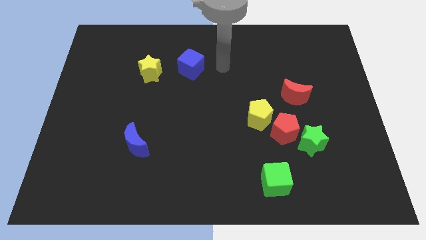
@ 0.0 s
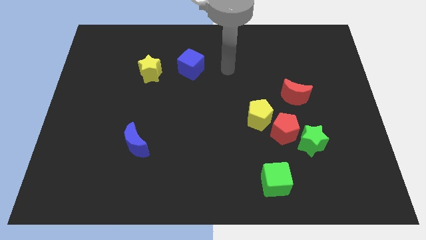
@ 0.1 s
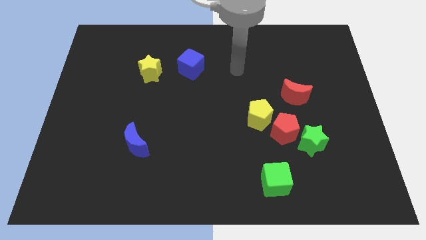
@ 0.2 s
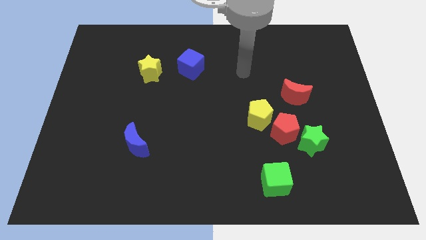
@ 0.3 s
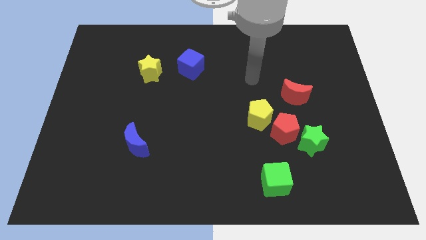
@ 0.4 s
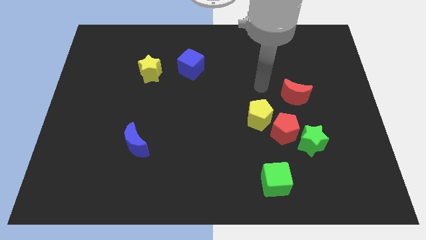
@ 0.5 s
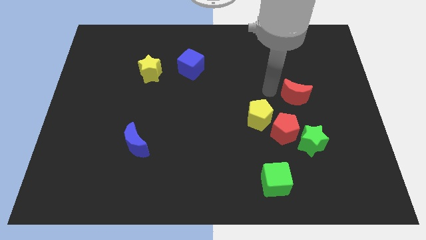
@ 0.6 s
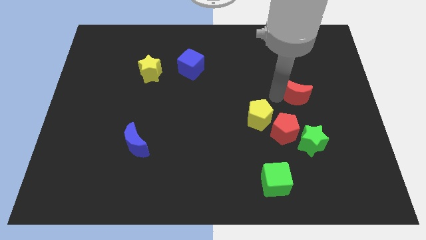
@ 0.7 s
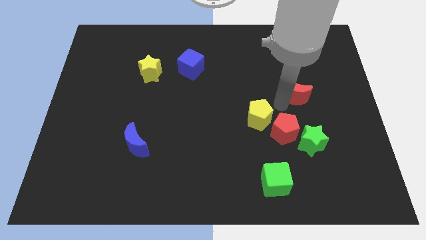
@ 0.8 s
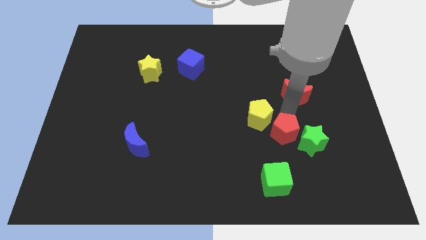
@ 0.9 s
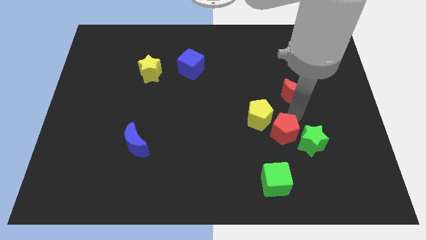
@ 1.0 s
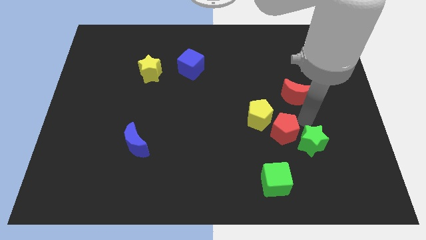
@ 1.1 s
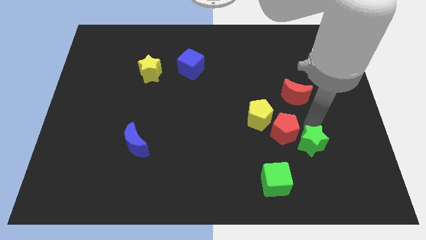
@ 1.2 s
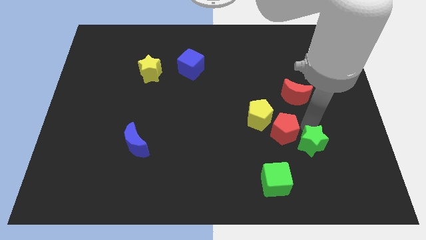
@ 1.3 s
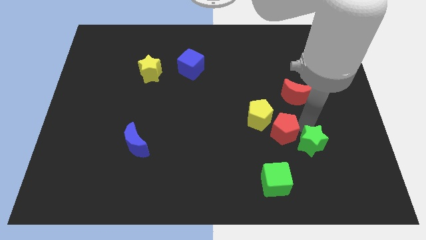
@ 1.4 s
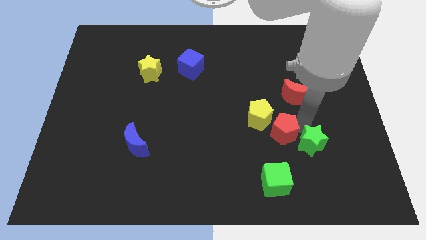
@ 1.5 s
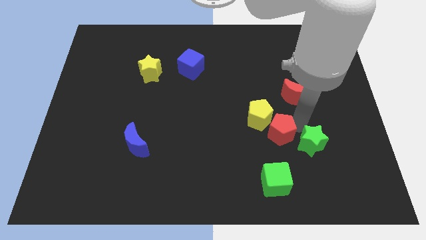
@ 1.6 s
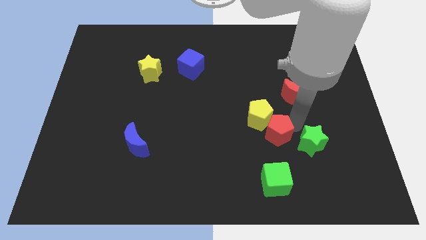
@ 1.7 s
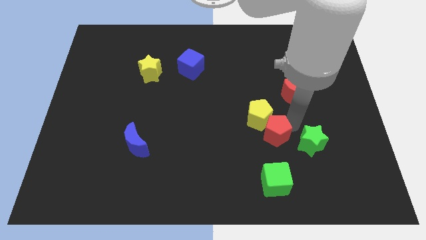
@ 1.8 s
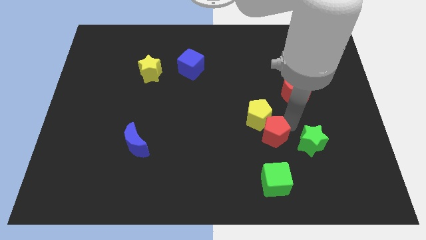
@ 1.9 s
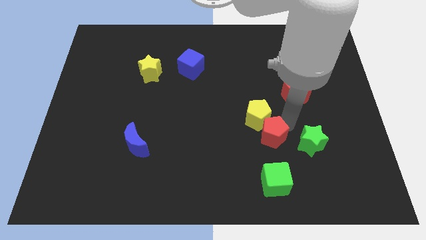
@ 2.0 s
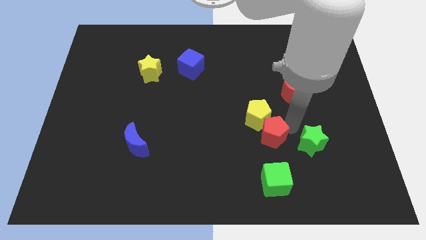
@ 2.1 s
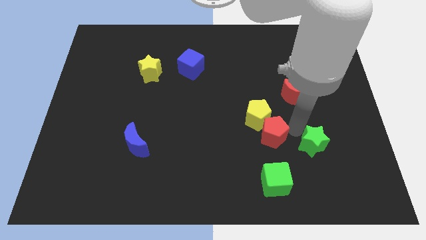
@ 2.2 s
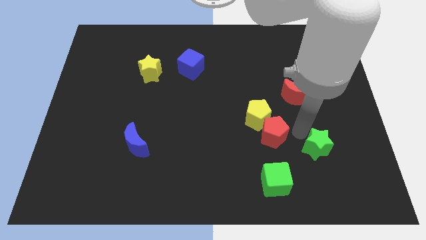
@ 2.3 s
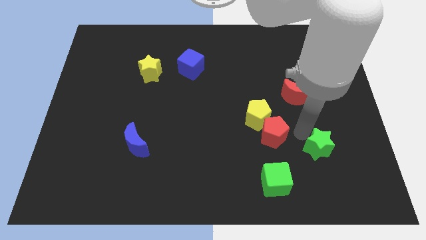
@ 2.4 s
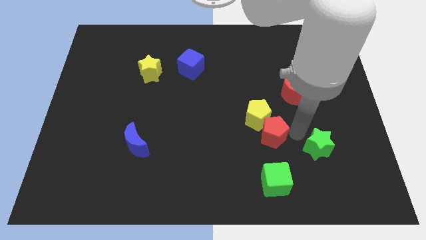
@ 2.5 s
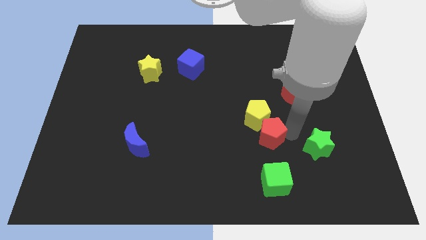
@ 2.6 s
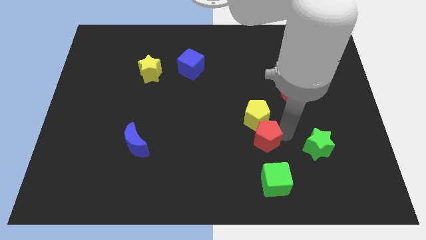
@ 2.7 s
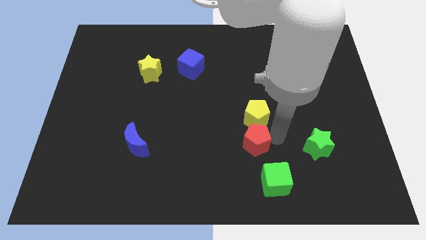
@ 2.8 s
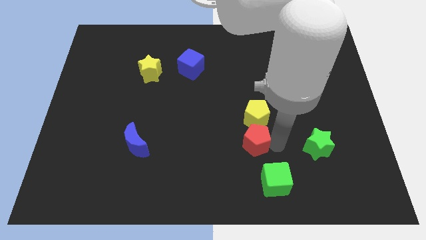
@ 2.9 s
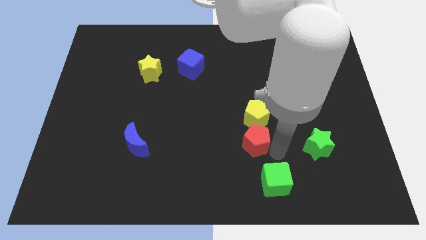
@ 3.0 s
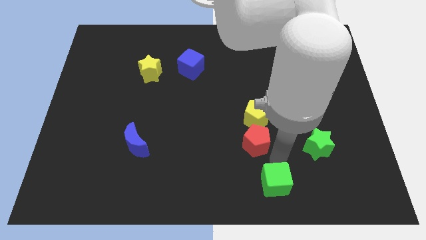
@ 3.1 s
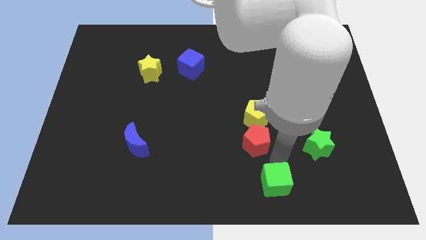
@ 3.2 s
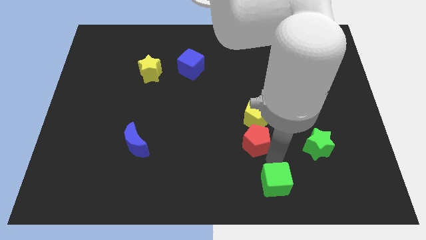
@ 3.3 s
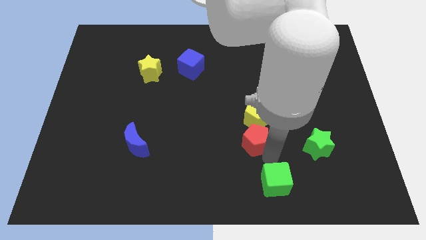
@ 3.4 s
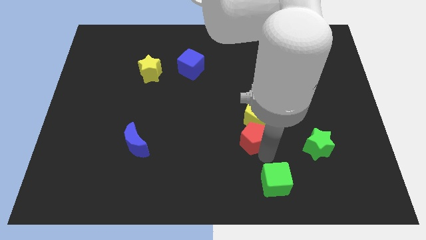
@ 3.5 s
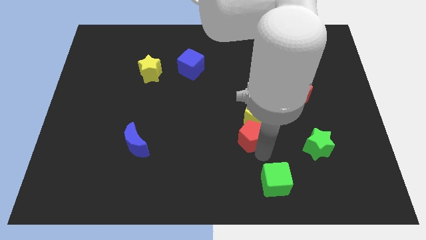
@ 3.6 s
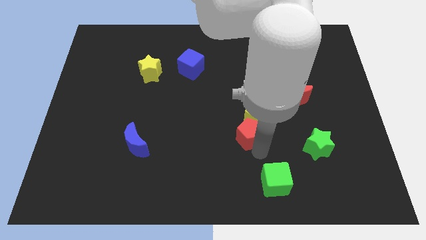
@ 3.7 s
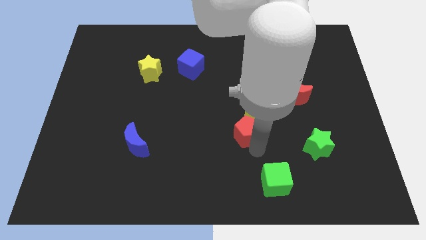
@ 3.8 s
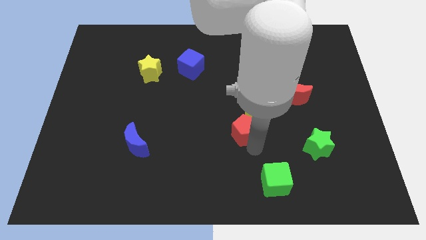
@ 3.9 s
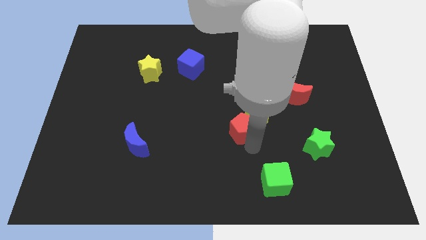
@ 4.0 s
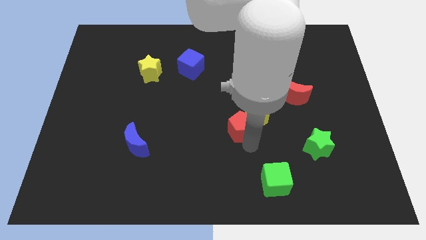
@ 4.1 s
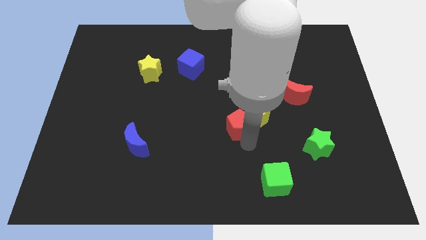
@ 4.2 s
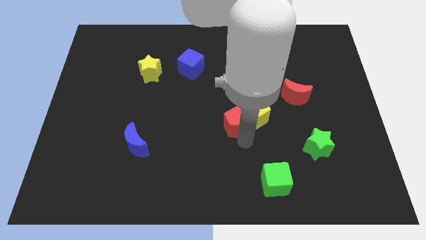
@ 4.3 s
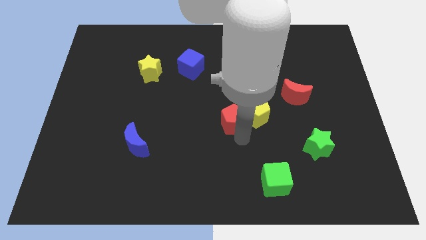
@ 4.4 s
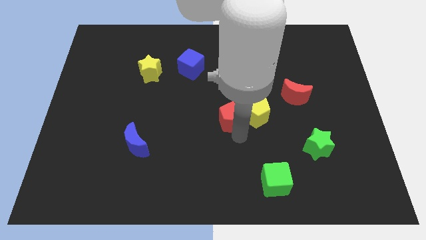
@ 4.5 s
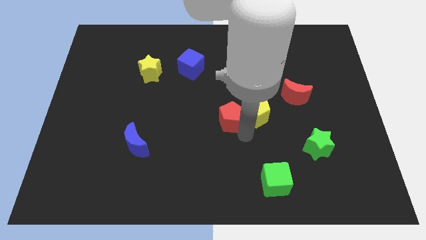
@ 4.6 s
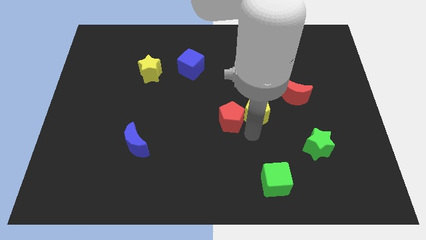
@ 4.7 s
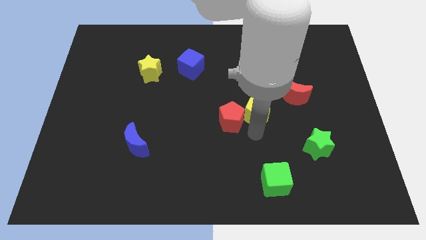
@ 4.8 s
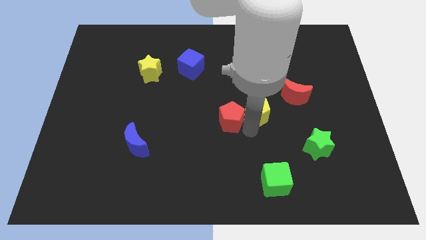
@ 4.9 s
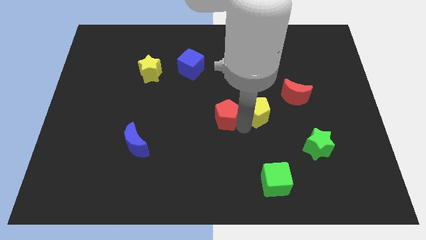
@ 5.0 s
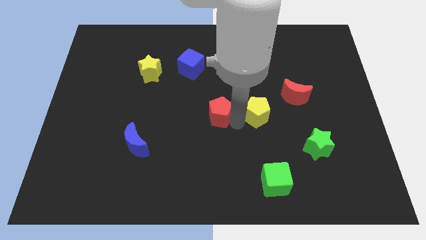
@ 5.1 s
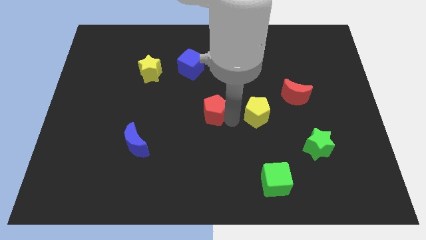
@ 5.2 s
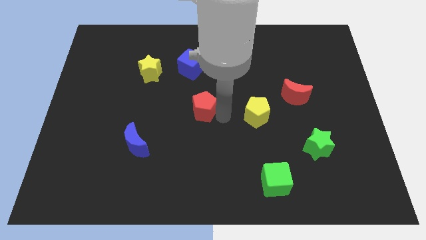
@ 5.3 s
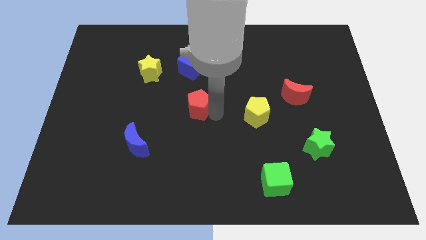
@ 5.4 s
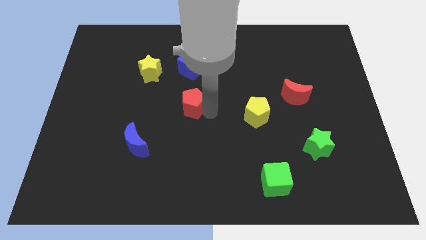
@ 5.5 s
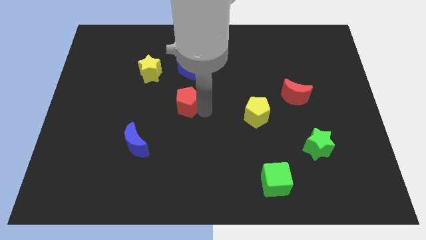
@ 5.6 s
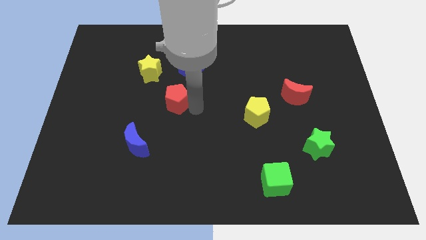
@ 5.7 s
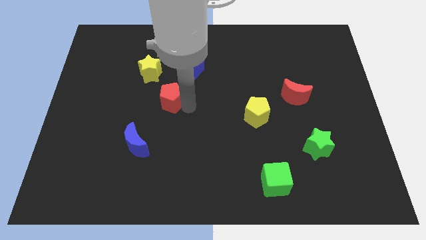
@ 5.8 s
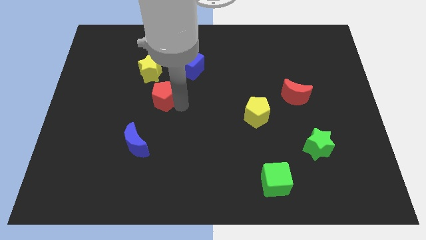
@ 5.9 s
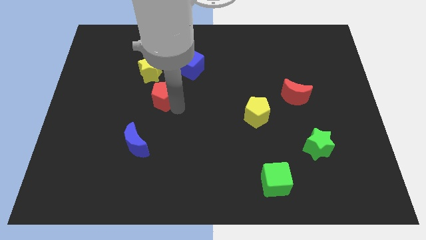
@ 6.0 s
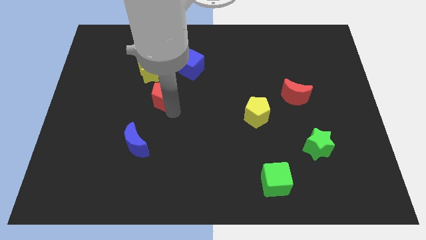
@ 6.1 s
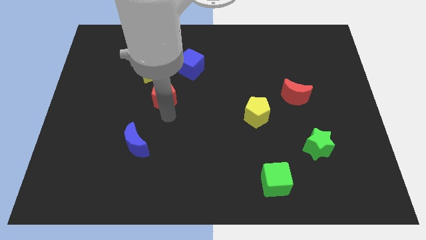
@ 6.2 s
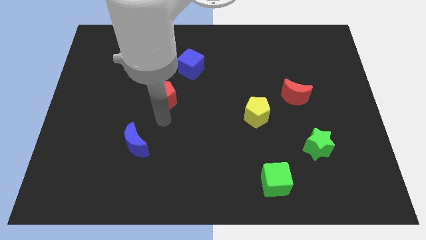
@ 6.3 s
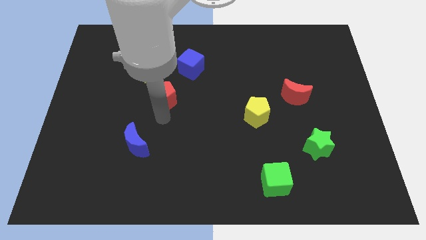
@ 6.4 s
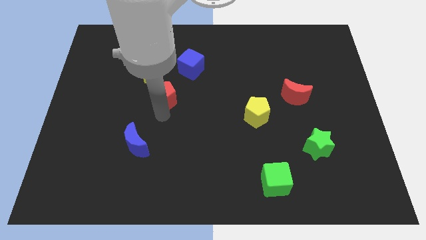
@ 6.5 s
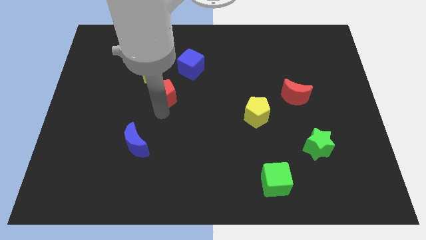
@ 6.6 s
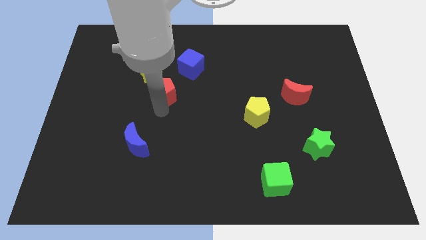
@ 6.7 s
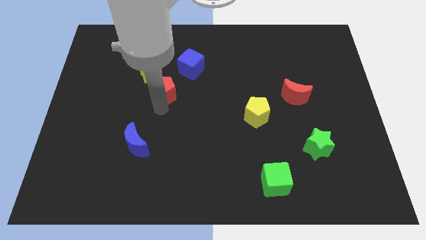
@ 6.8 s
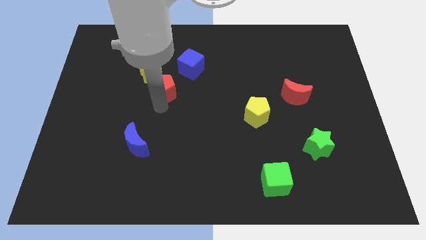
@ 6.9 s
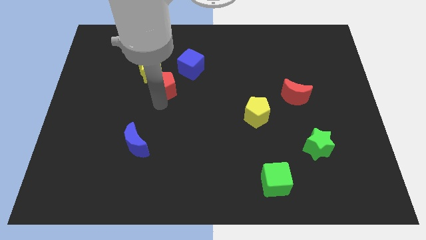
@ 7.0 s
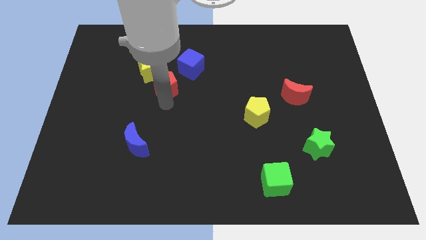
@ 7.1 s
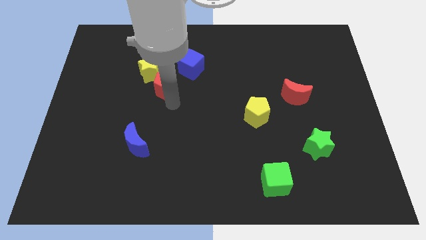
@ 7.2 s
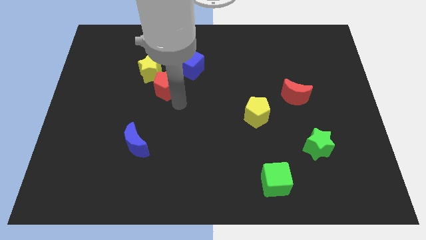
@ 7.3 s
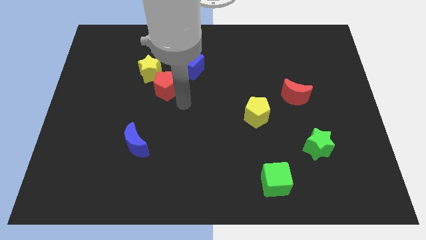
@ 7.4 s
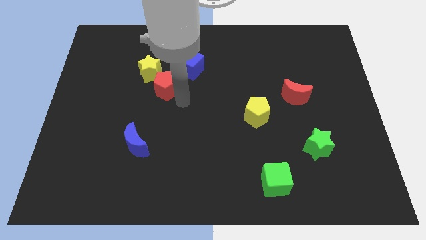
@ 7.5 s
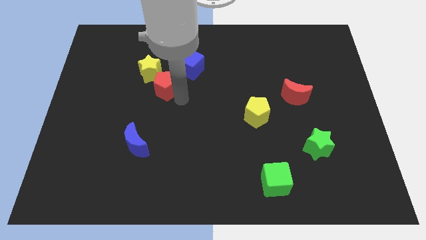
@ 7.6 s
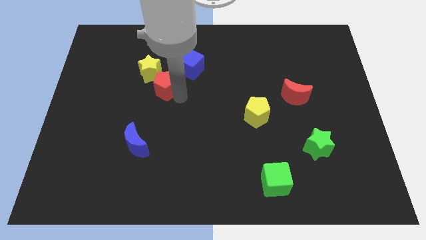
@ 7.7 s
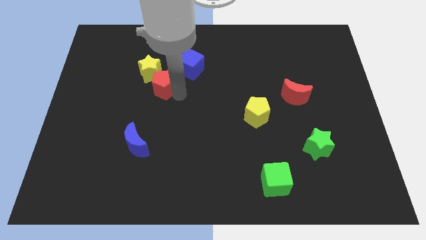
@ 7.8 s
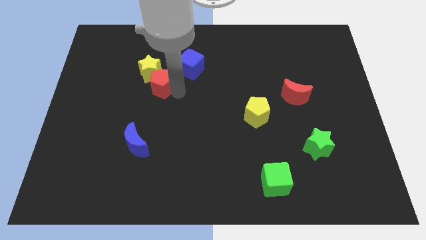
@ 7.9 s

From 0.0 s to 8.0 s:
push the red pentagon next to the yellow star
